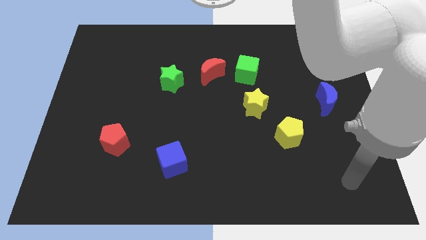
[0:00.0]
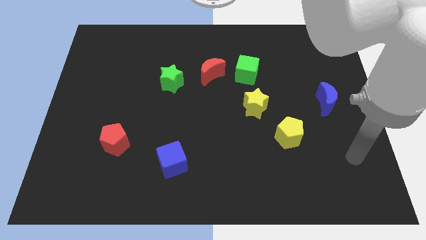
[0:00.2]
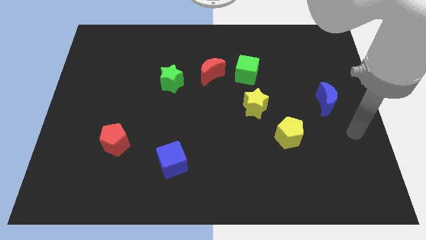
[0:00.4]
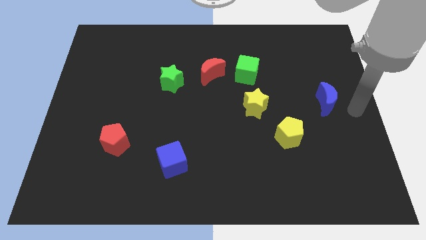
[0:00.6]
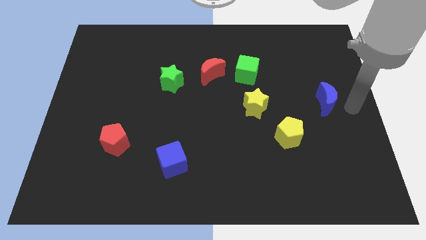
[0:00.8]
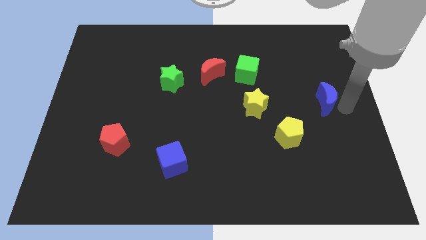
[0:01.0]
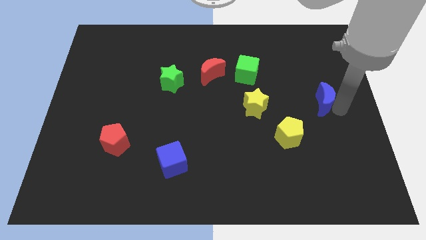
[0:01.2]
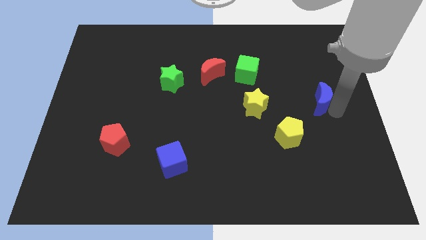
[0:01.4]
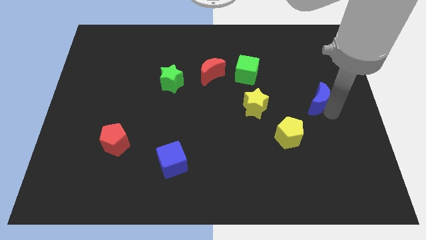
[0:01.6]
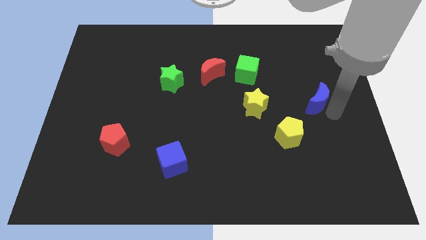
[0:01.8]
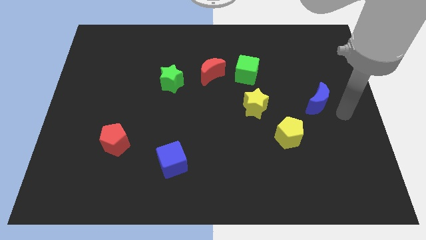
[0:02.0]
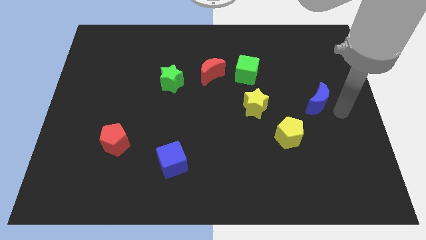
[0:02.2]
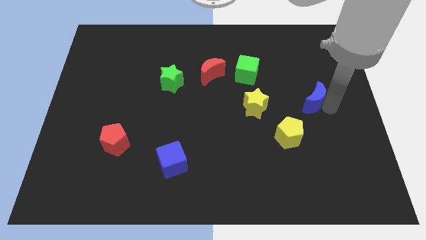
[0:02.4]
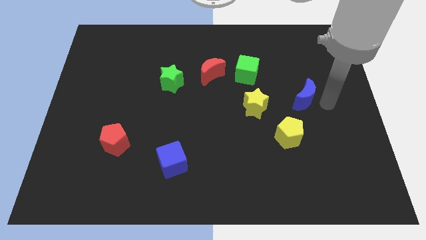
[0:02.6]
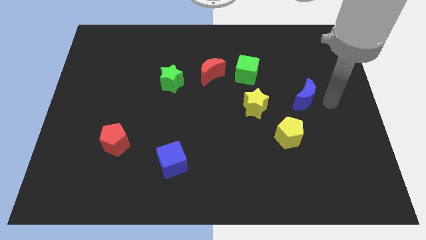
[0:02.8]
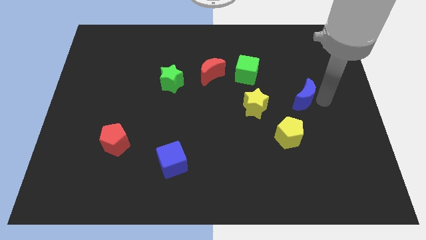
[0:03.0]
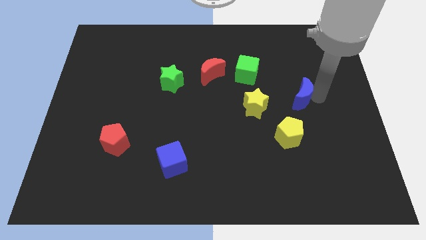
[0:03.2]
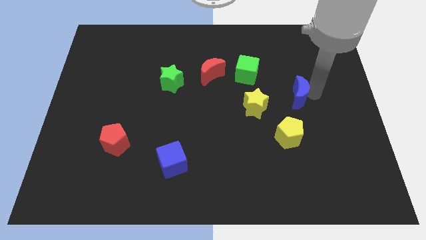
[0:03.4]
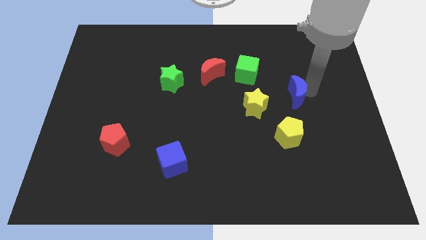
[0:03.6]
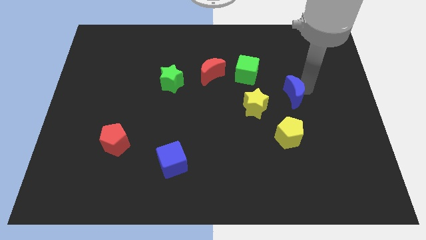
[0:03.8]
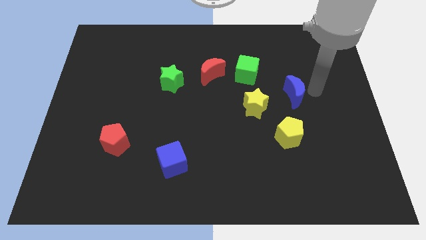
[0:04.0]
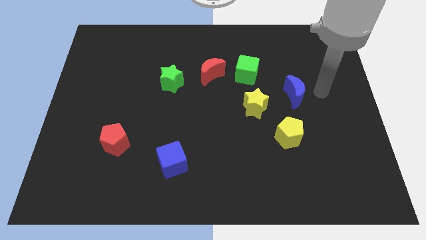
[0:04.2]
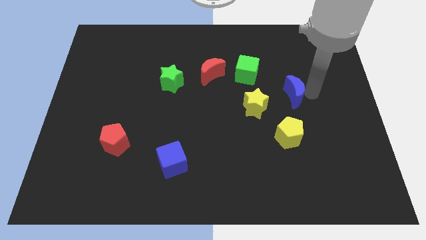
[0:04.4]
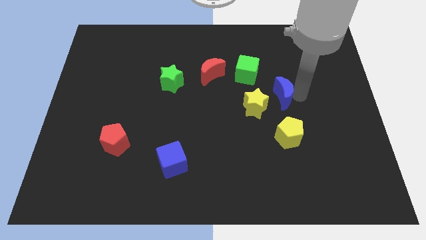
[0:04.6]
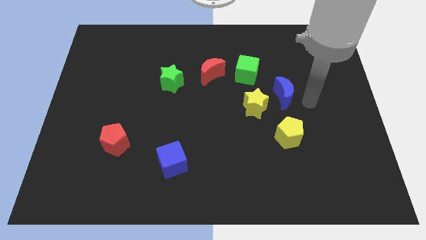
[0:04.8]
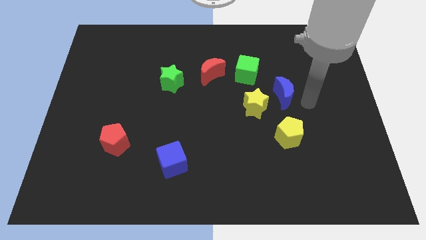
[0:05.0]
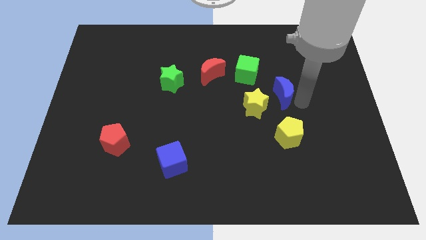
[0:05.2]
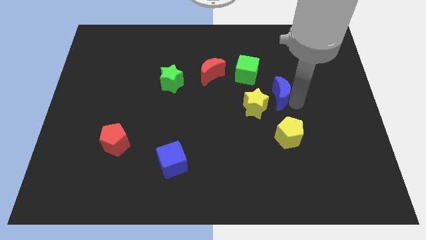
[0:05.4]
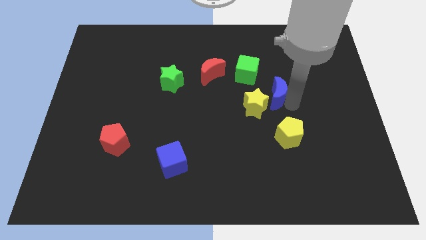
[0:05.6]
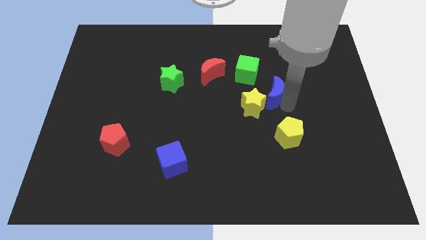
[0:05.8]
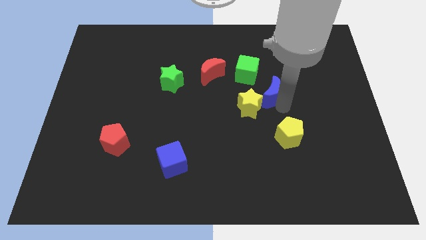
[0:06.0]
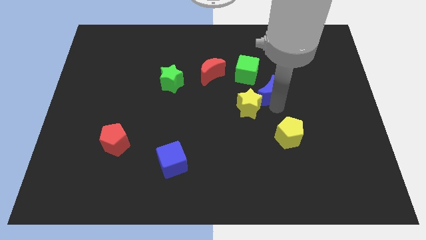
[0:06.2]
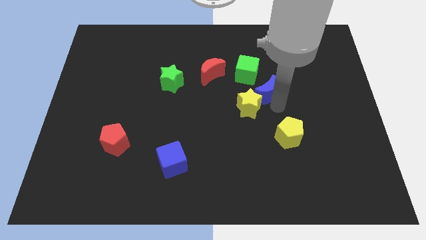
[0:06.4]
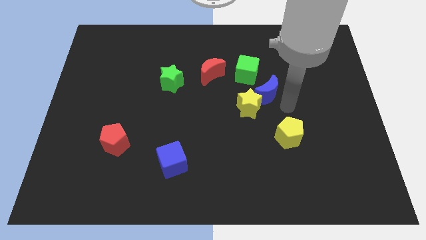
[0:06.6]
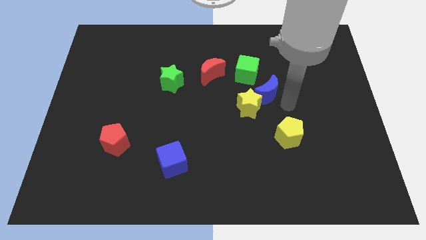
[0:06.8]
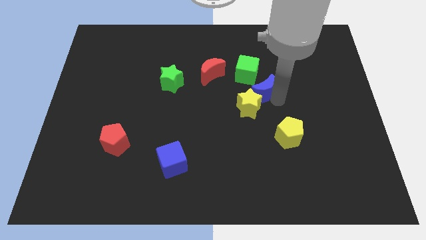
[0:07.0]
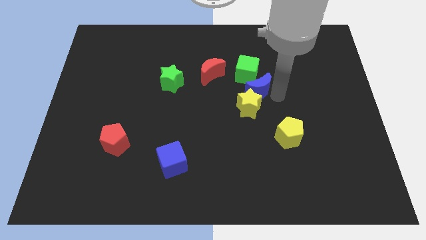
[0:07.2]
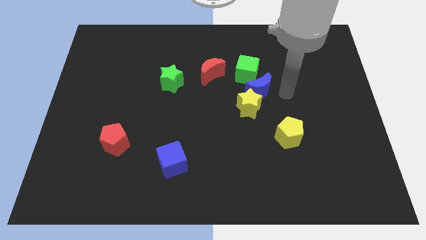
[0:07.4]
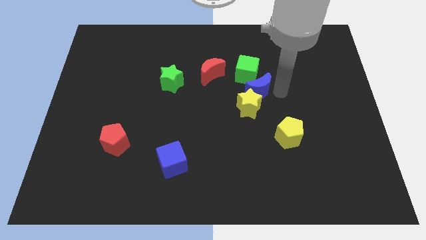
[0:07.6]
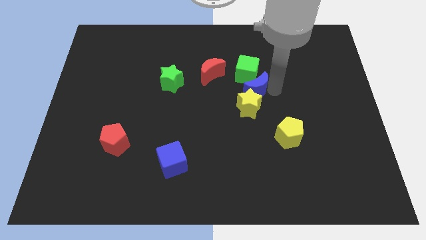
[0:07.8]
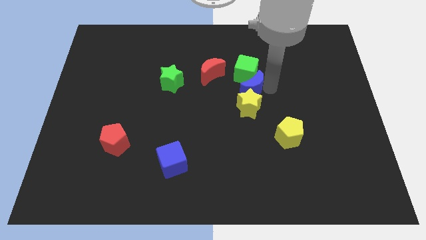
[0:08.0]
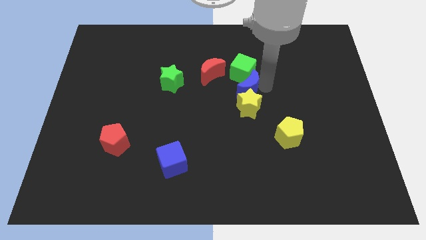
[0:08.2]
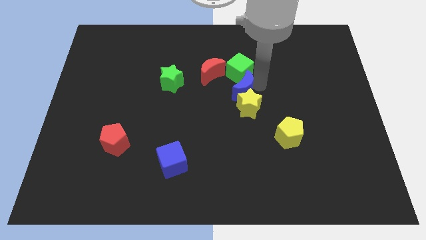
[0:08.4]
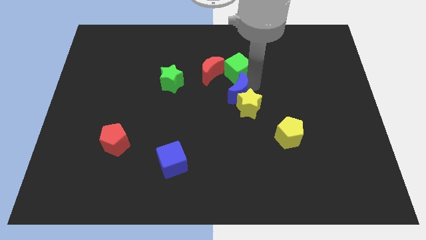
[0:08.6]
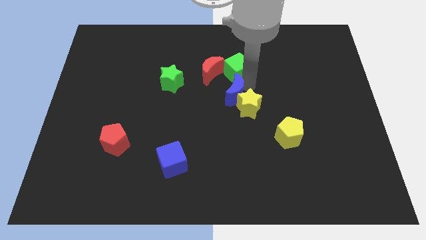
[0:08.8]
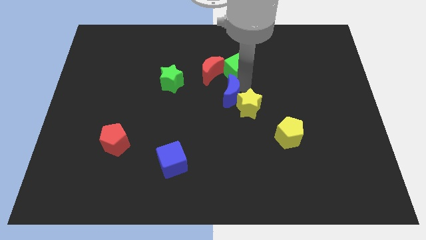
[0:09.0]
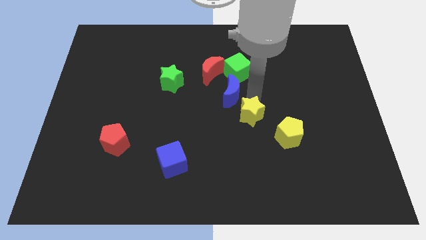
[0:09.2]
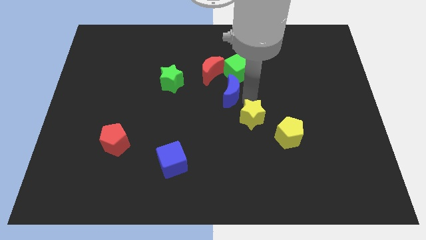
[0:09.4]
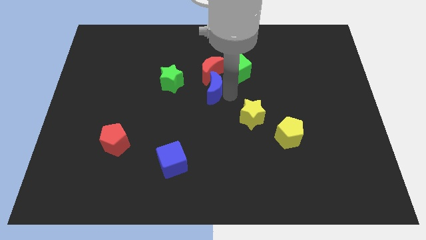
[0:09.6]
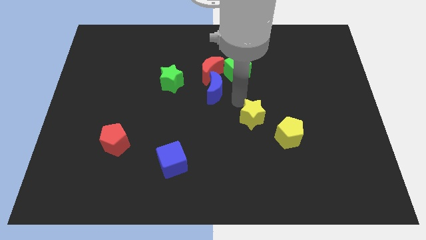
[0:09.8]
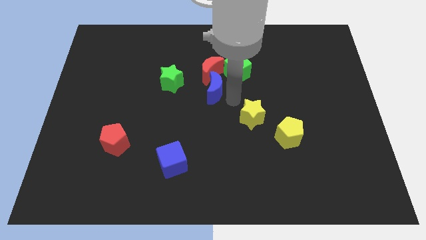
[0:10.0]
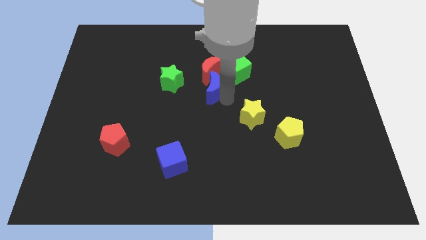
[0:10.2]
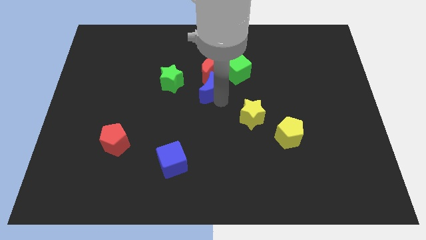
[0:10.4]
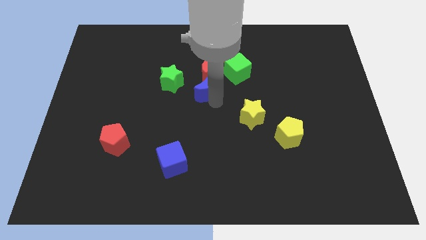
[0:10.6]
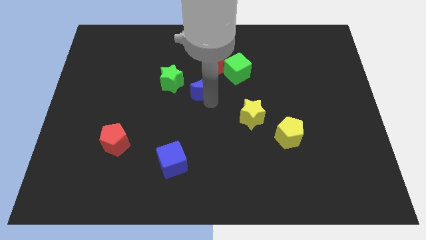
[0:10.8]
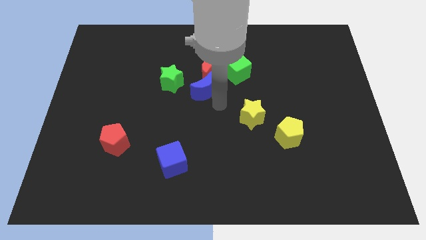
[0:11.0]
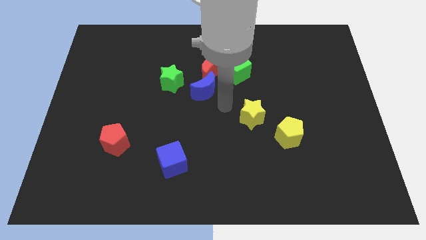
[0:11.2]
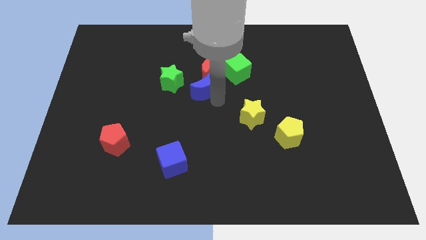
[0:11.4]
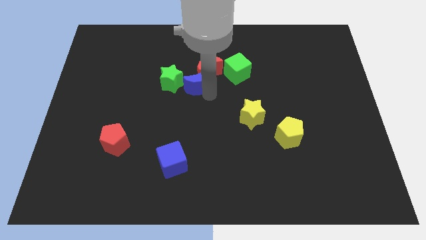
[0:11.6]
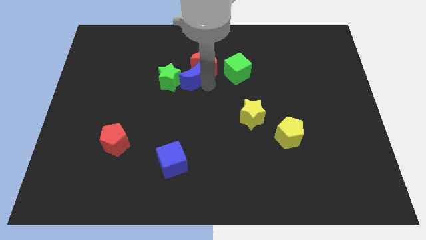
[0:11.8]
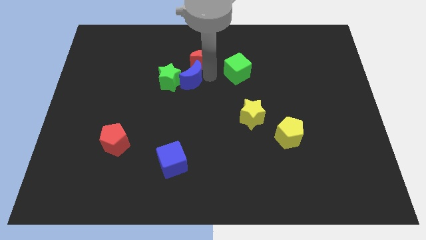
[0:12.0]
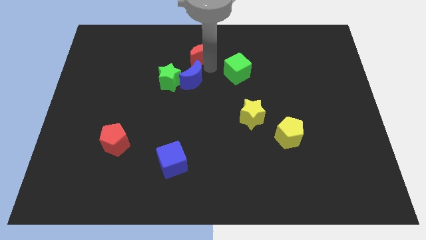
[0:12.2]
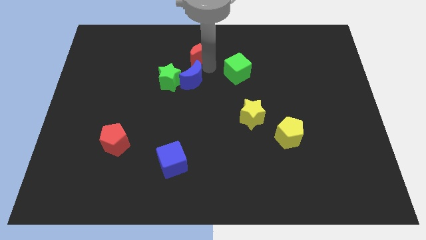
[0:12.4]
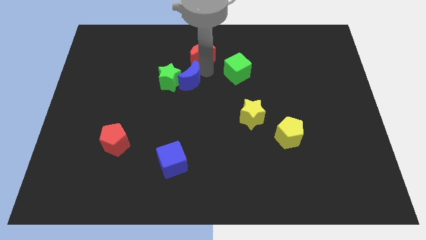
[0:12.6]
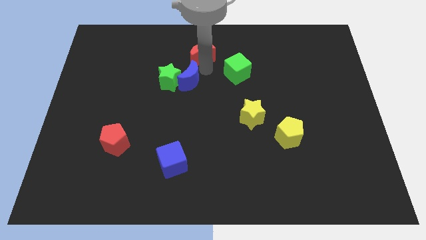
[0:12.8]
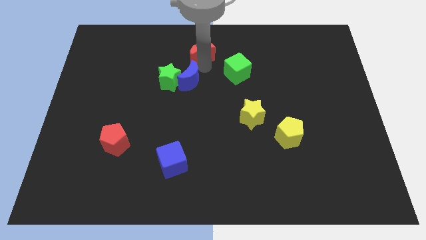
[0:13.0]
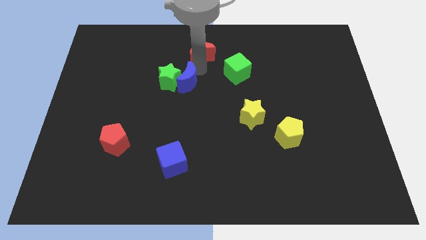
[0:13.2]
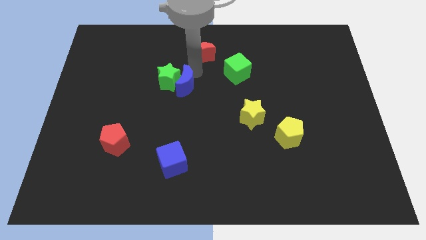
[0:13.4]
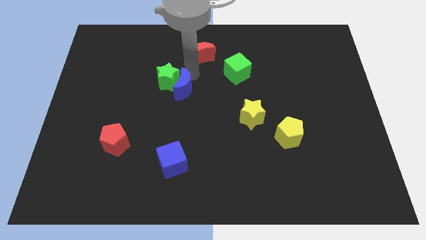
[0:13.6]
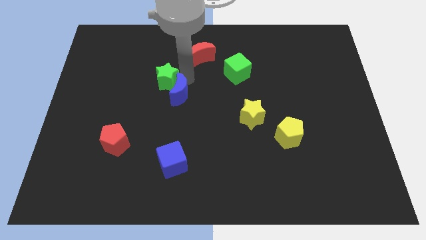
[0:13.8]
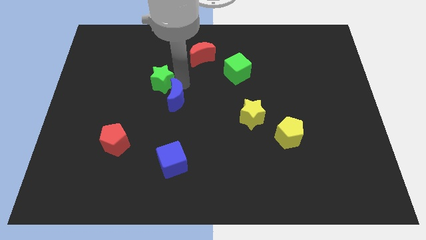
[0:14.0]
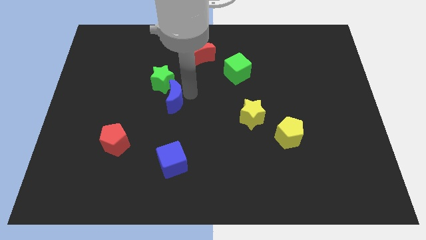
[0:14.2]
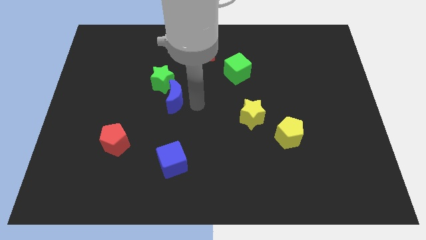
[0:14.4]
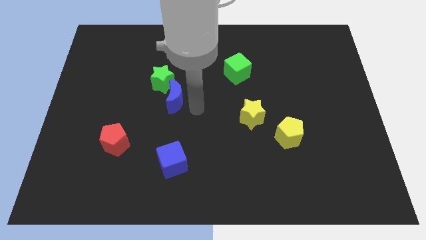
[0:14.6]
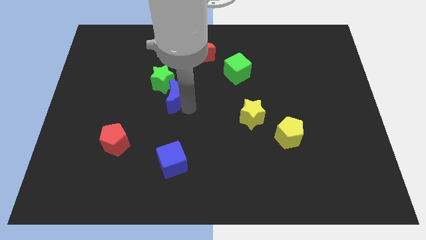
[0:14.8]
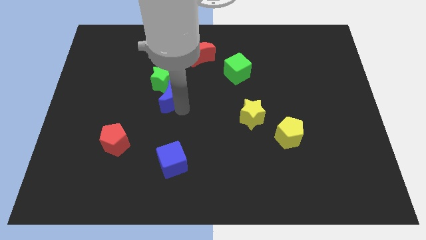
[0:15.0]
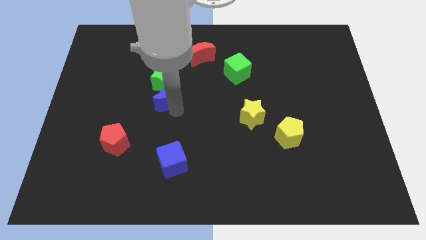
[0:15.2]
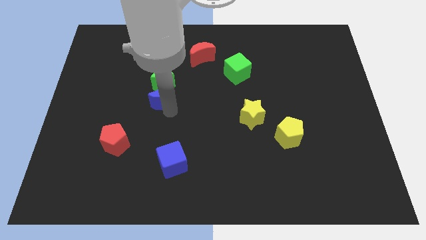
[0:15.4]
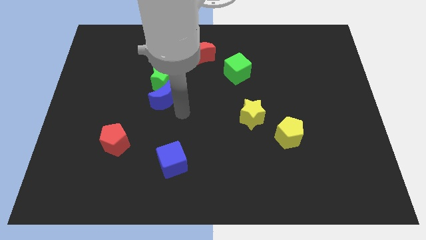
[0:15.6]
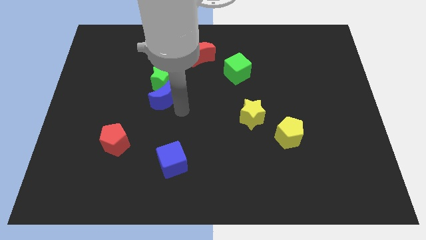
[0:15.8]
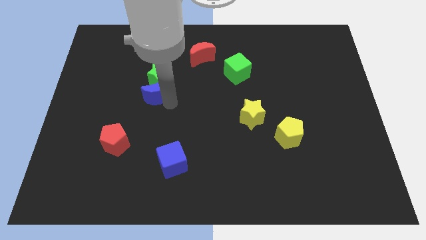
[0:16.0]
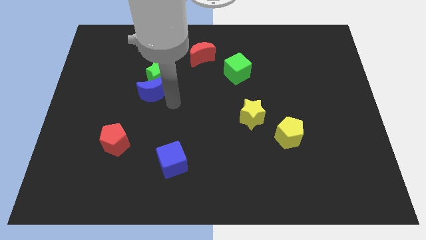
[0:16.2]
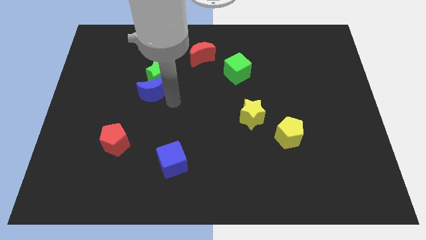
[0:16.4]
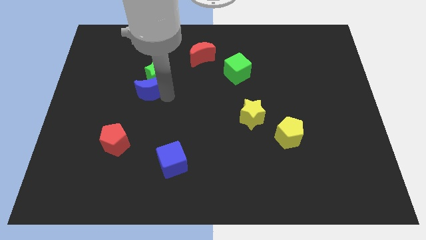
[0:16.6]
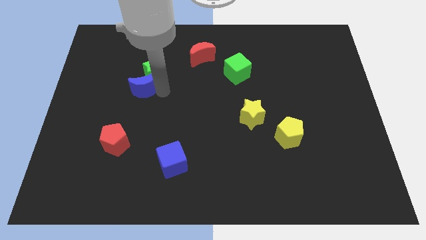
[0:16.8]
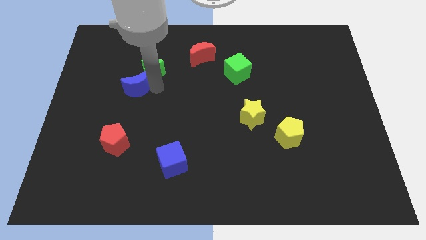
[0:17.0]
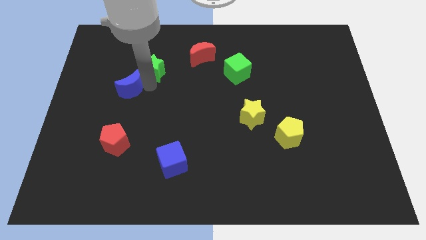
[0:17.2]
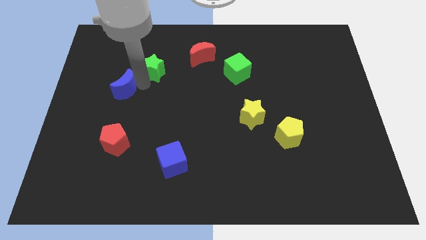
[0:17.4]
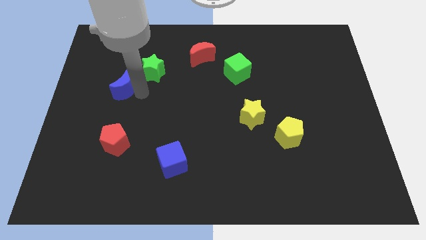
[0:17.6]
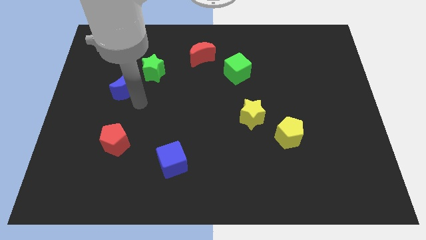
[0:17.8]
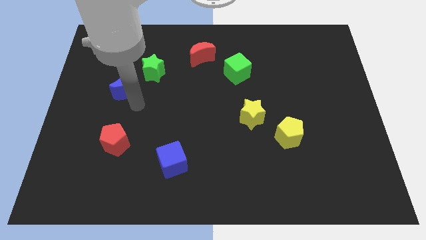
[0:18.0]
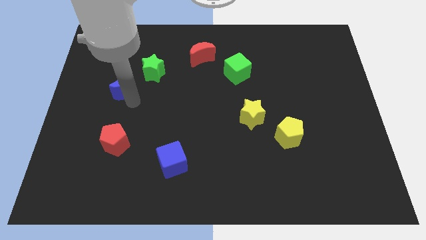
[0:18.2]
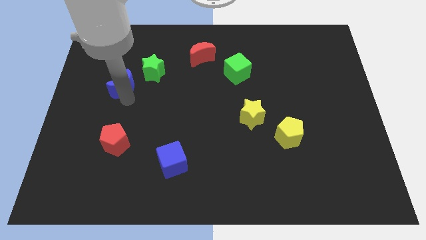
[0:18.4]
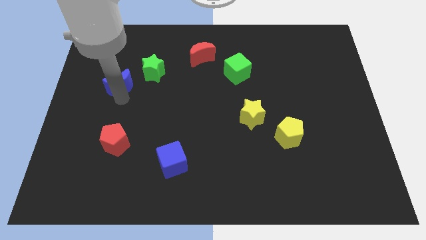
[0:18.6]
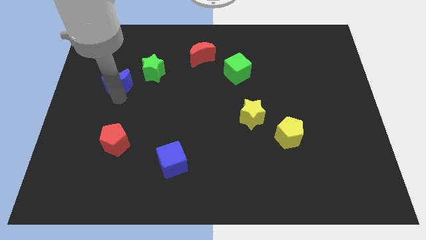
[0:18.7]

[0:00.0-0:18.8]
slide the blue moon just left of the green star
